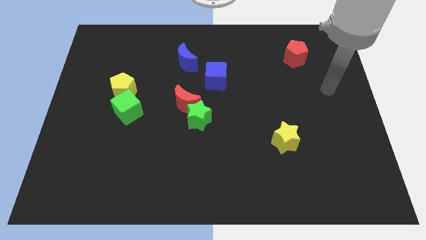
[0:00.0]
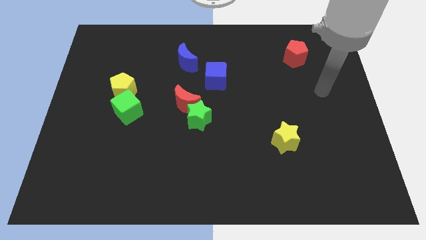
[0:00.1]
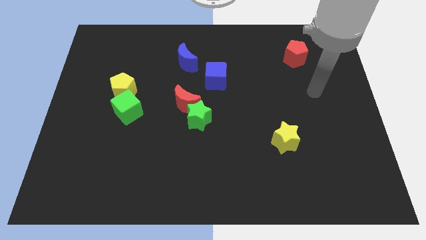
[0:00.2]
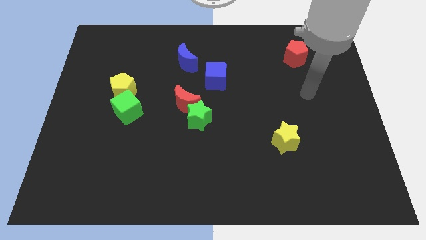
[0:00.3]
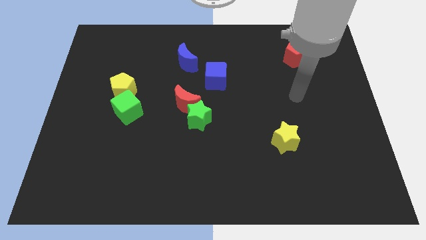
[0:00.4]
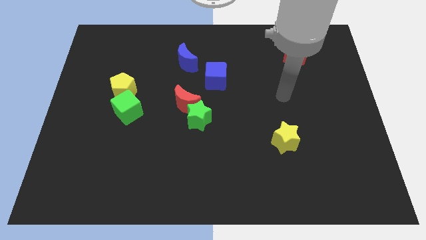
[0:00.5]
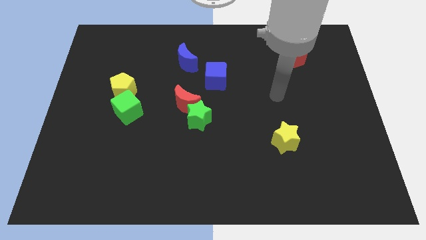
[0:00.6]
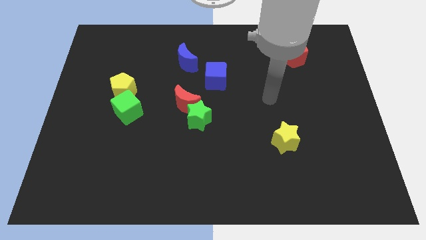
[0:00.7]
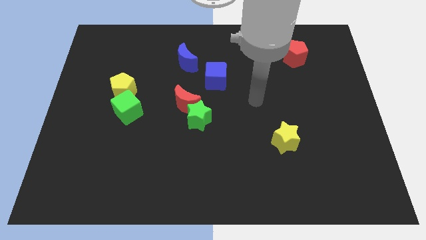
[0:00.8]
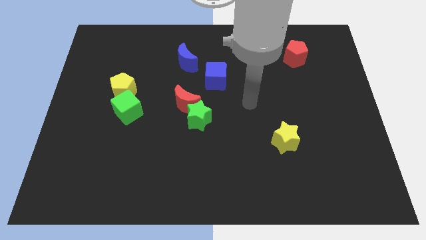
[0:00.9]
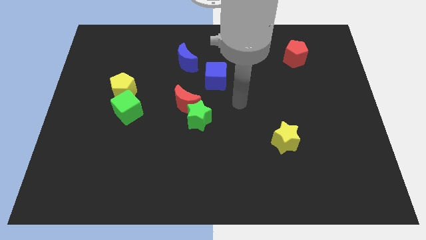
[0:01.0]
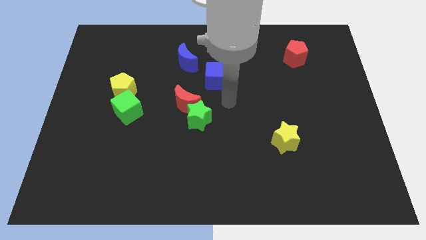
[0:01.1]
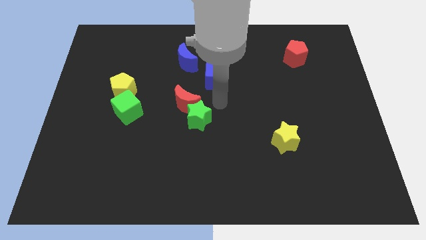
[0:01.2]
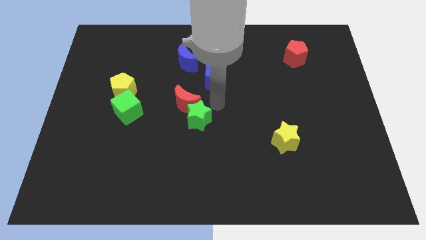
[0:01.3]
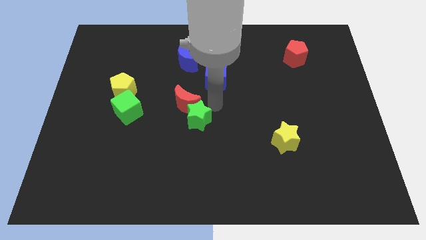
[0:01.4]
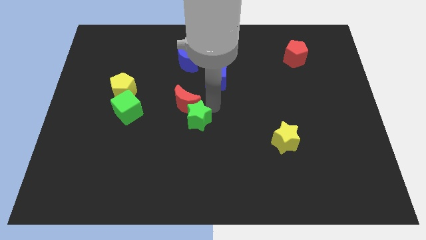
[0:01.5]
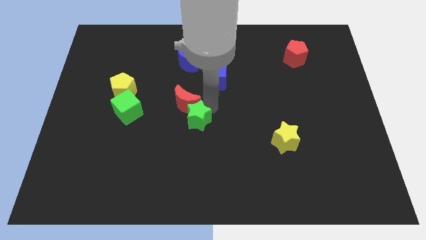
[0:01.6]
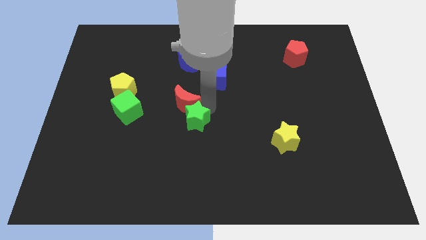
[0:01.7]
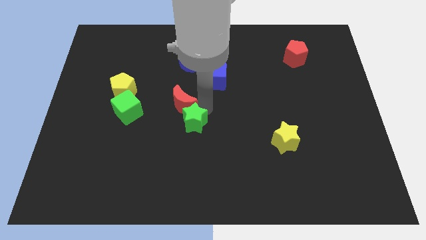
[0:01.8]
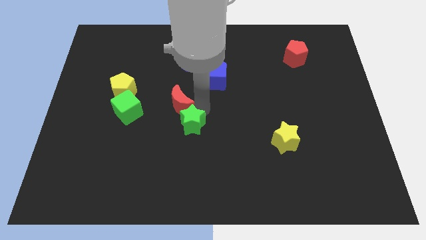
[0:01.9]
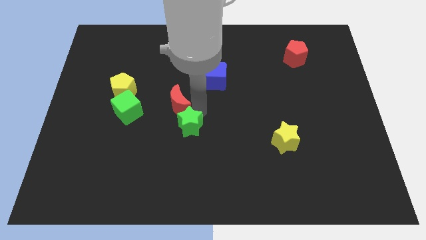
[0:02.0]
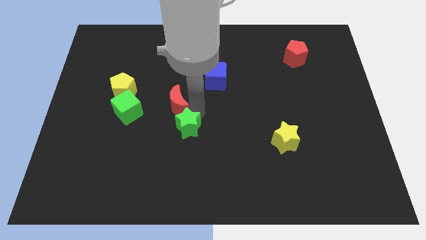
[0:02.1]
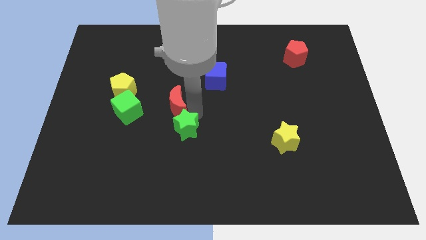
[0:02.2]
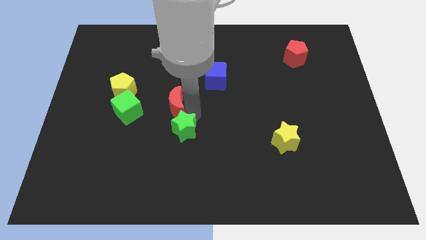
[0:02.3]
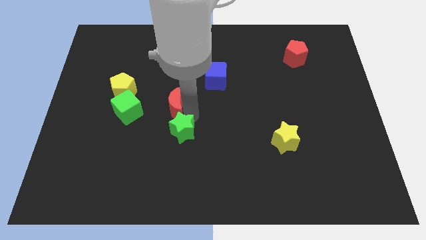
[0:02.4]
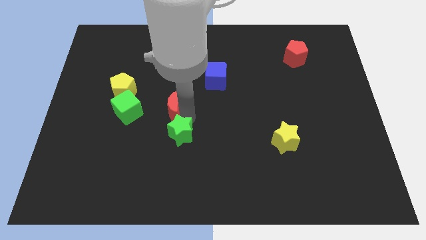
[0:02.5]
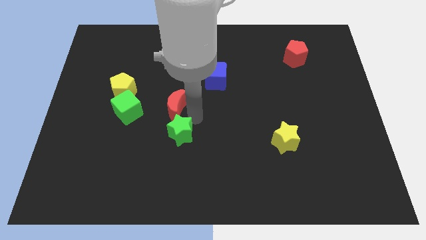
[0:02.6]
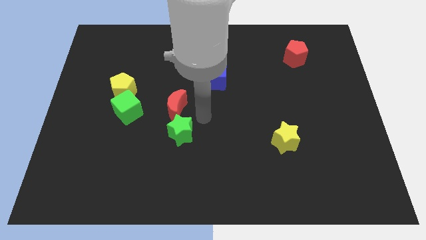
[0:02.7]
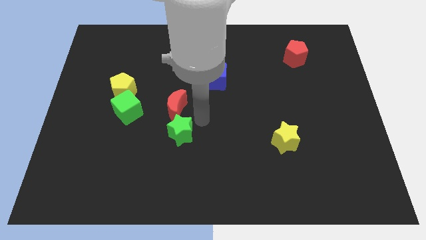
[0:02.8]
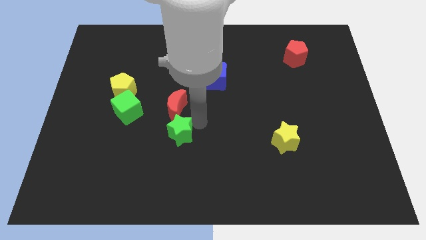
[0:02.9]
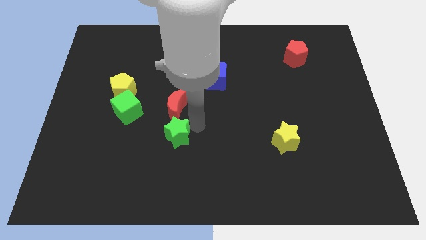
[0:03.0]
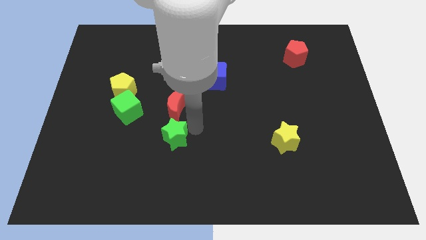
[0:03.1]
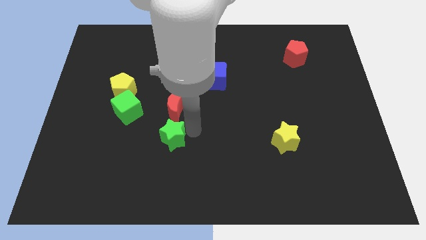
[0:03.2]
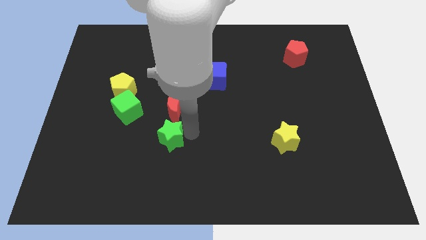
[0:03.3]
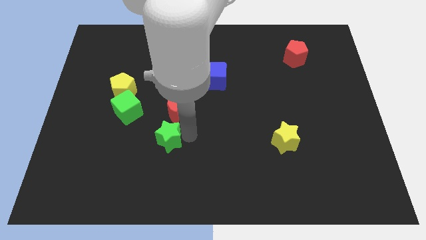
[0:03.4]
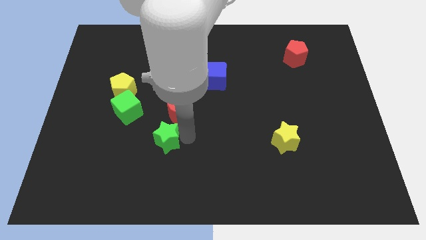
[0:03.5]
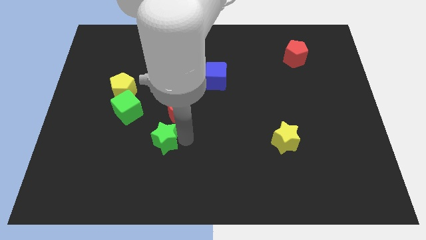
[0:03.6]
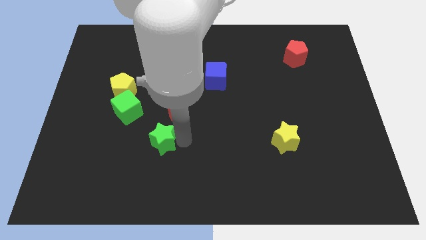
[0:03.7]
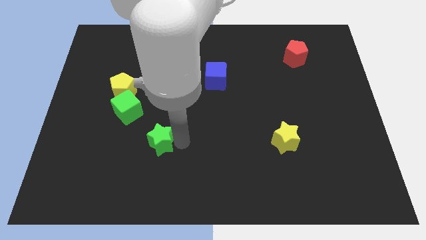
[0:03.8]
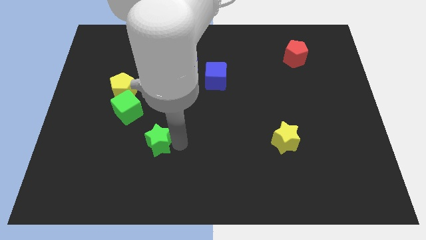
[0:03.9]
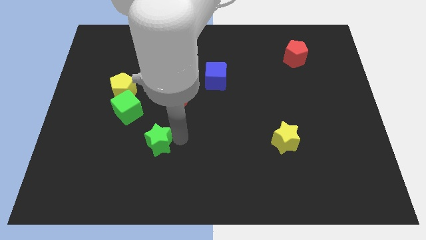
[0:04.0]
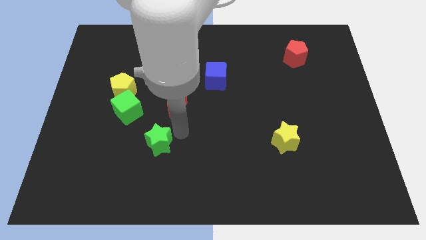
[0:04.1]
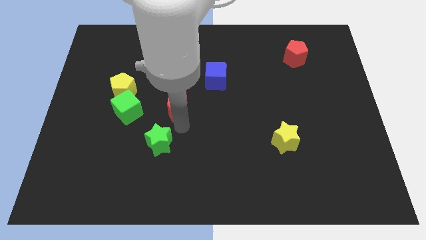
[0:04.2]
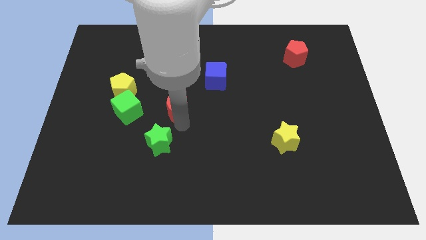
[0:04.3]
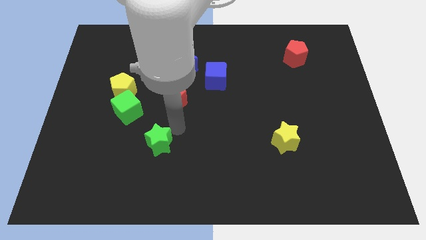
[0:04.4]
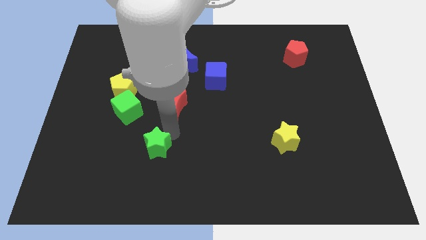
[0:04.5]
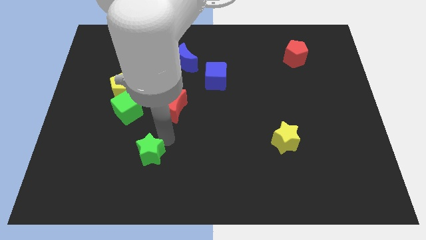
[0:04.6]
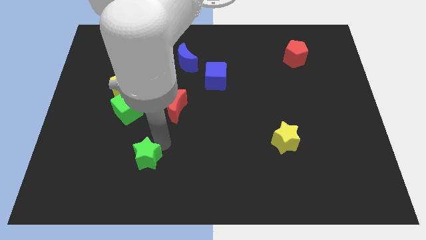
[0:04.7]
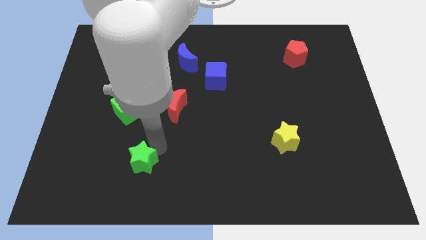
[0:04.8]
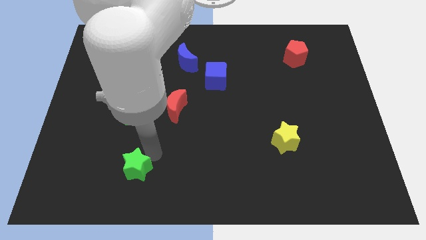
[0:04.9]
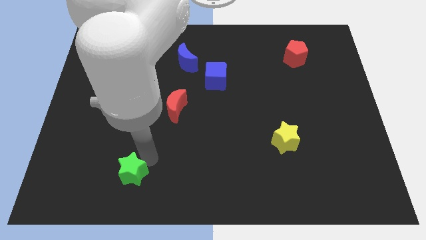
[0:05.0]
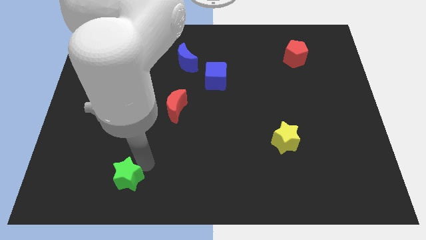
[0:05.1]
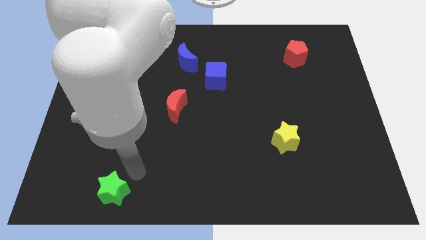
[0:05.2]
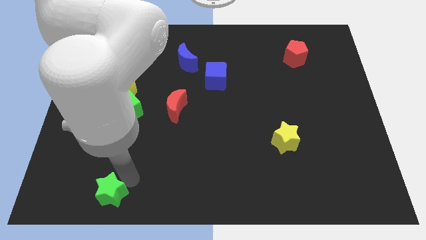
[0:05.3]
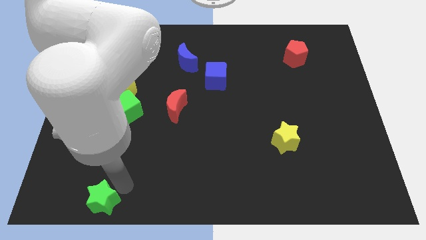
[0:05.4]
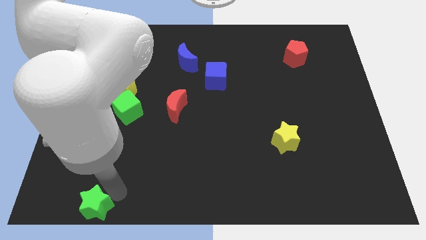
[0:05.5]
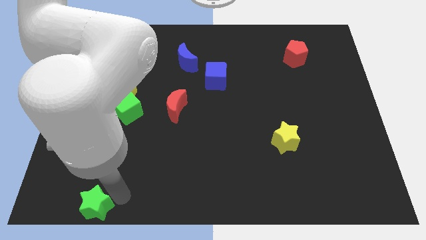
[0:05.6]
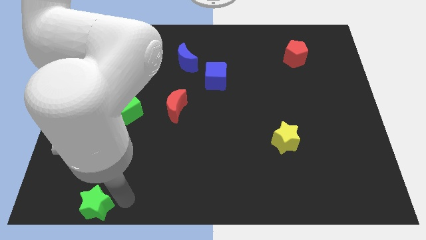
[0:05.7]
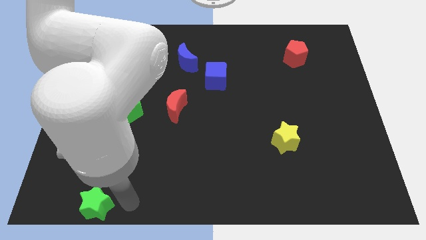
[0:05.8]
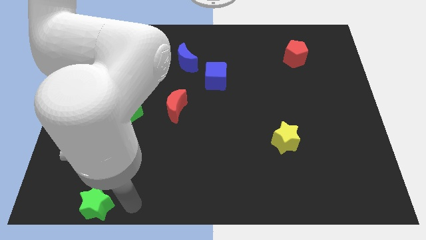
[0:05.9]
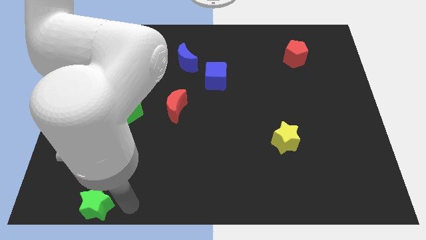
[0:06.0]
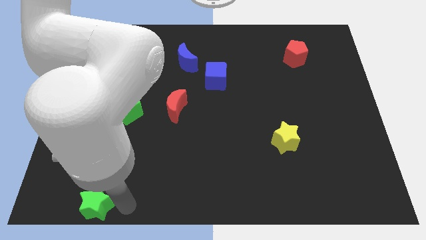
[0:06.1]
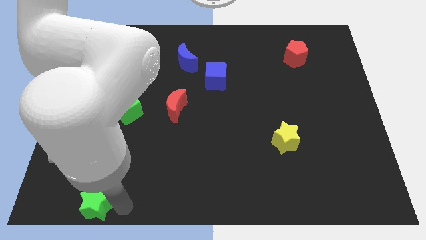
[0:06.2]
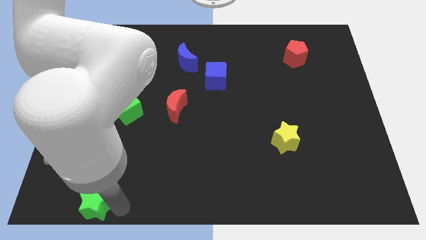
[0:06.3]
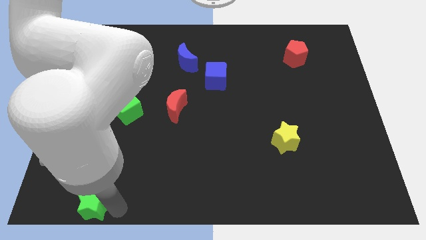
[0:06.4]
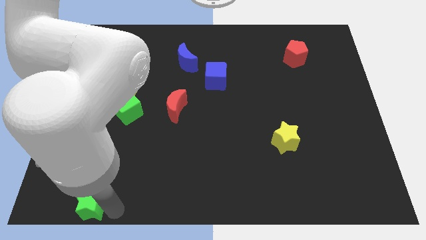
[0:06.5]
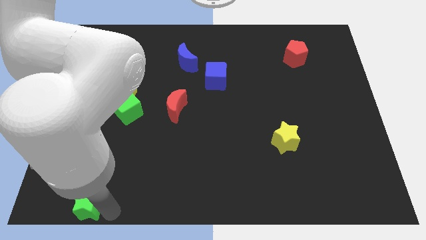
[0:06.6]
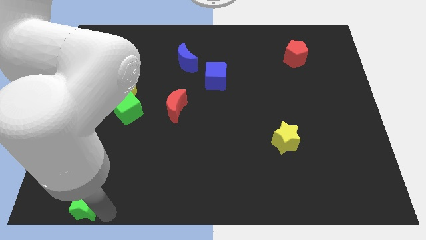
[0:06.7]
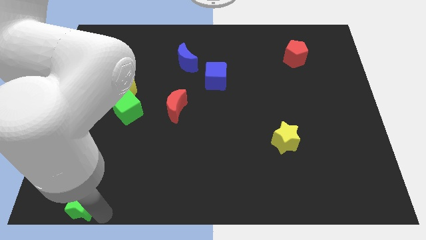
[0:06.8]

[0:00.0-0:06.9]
move the green star to the lower left corner
